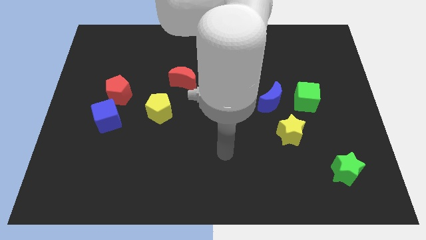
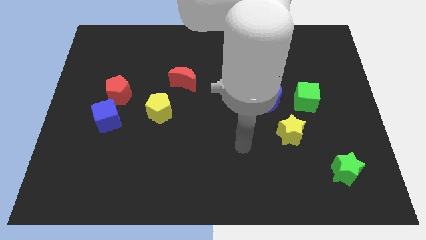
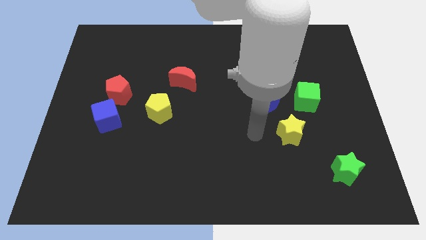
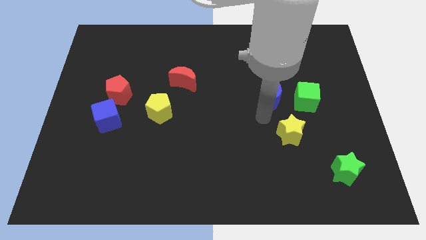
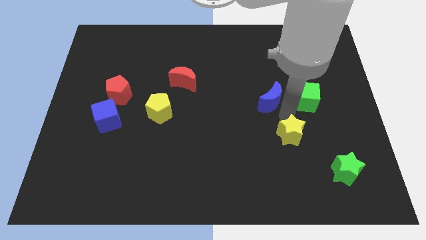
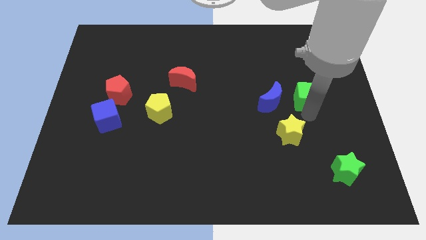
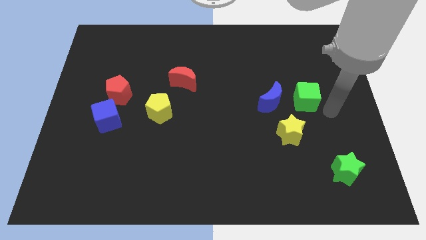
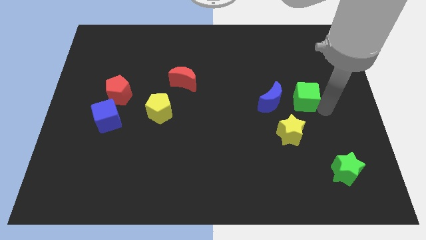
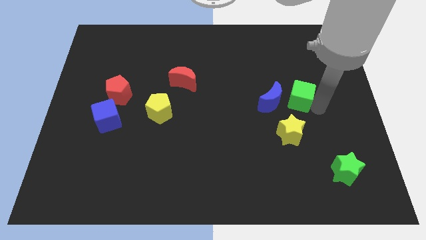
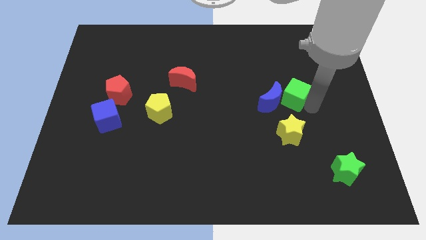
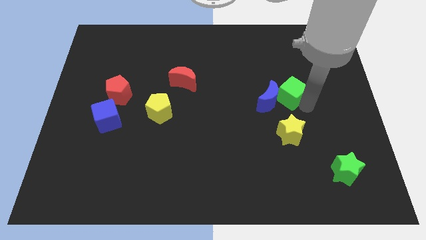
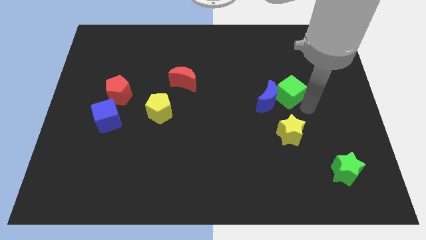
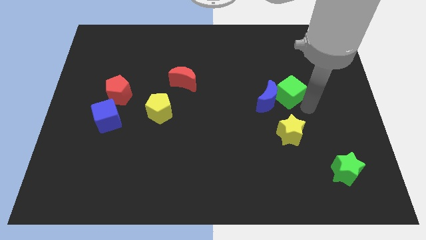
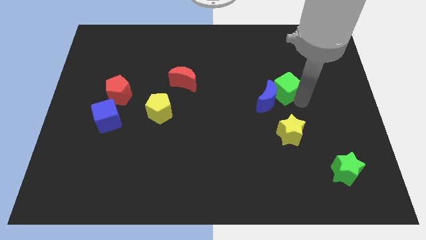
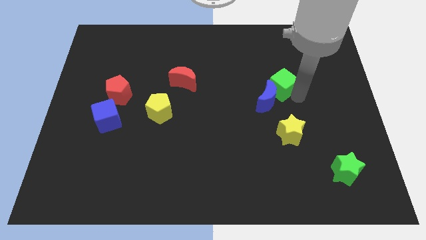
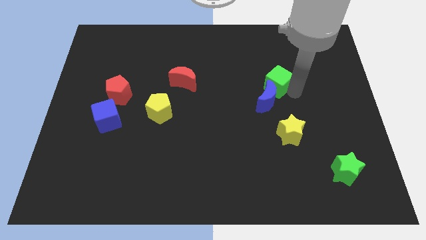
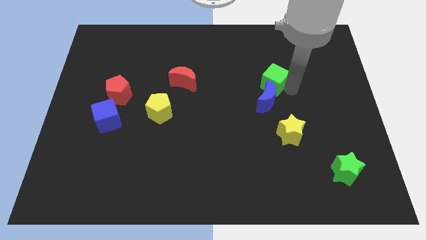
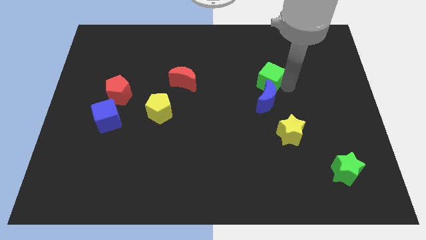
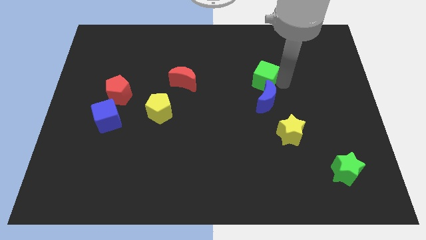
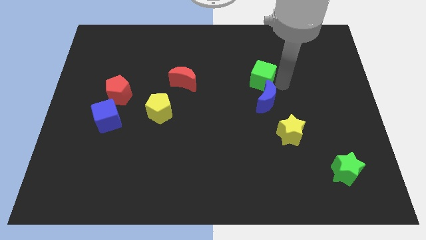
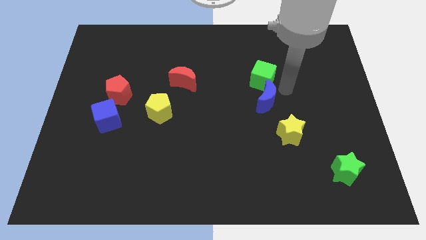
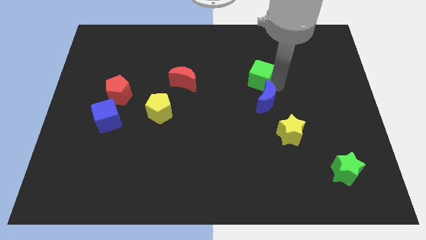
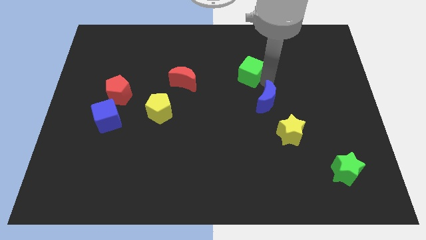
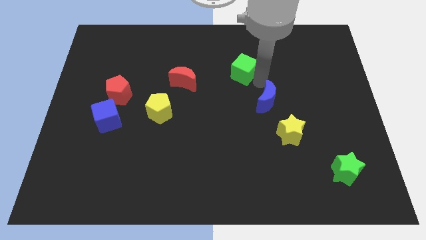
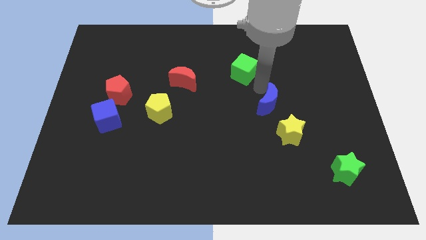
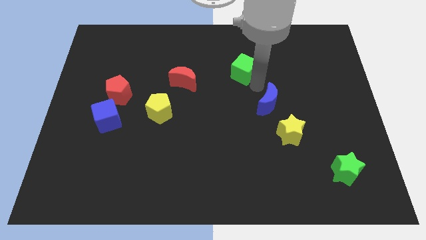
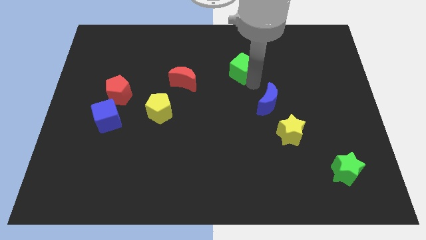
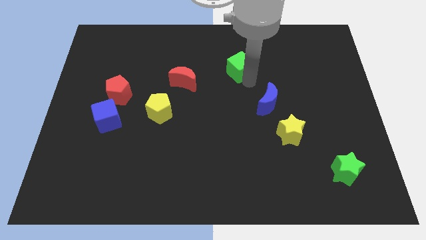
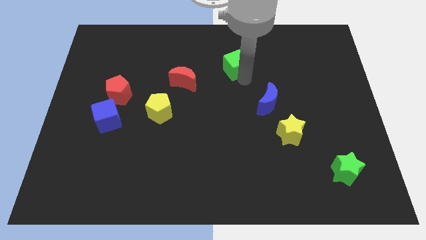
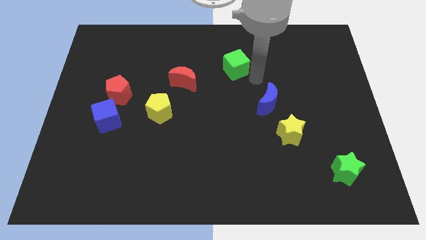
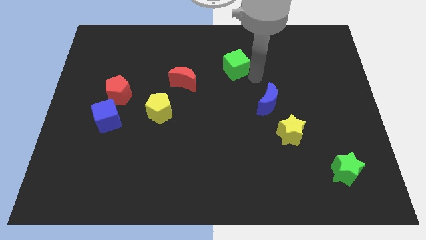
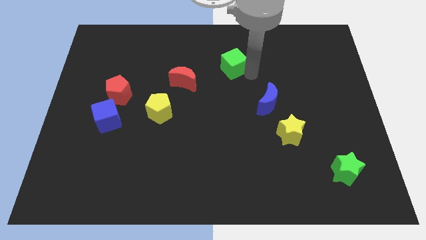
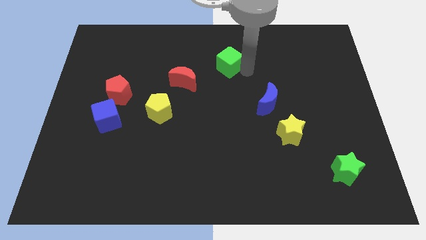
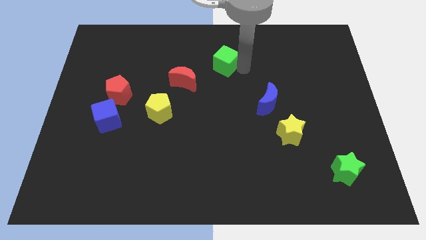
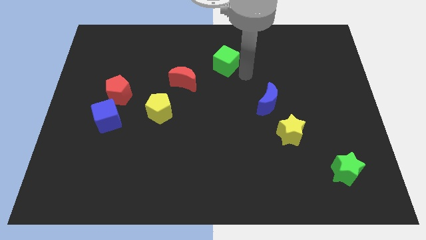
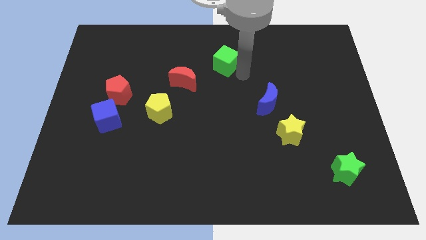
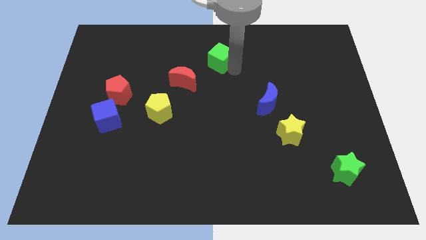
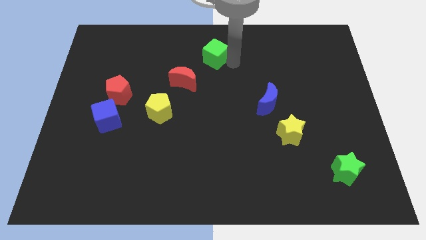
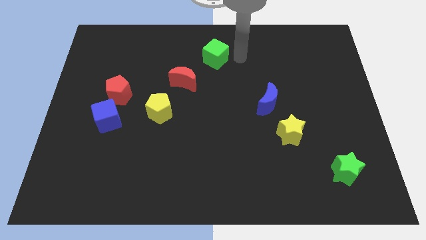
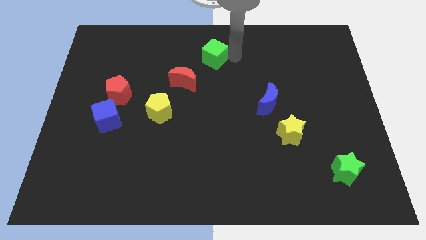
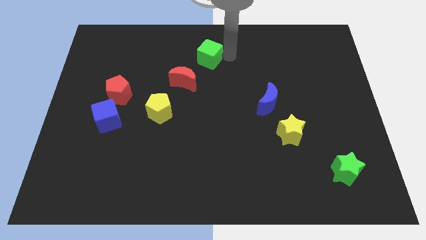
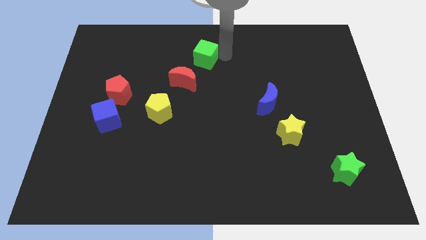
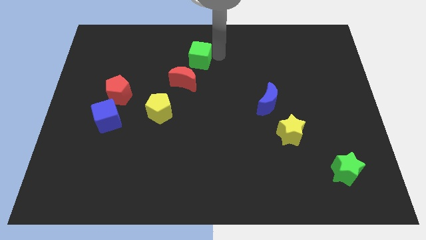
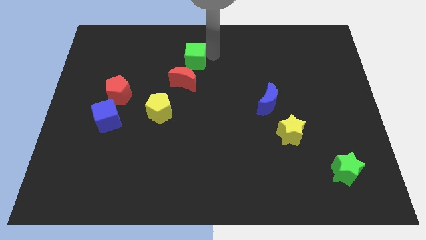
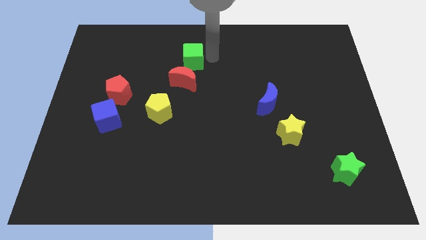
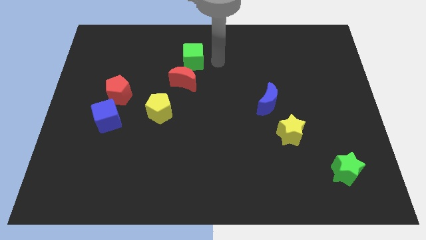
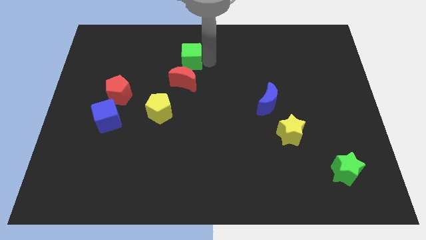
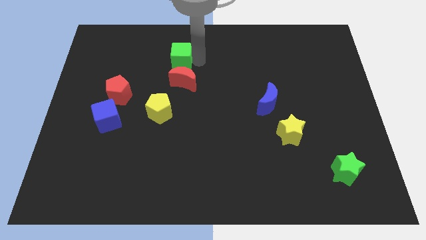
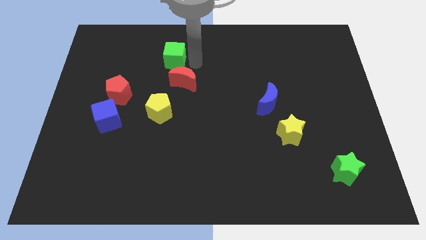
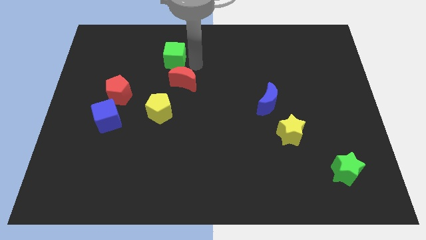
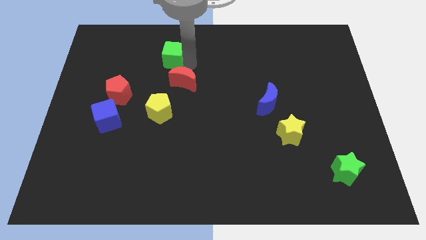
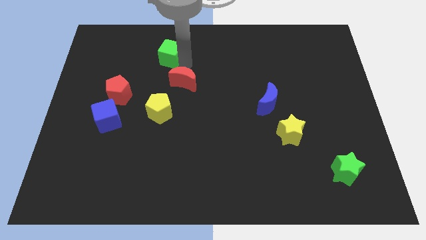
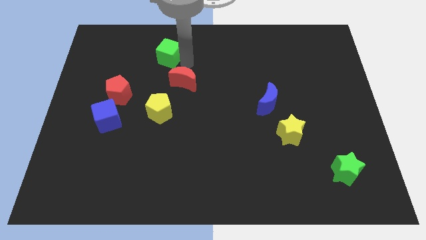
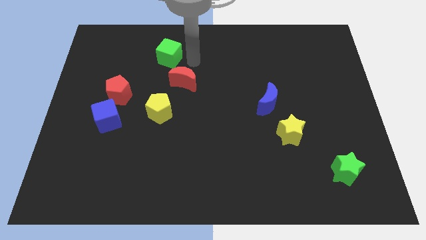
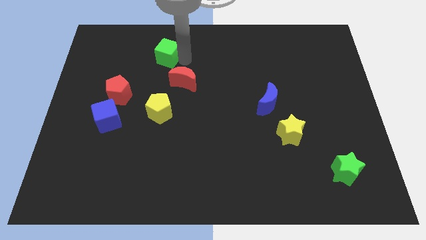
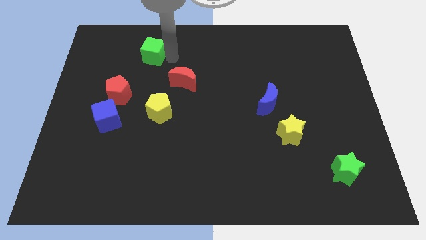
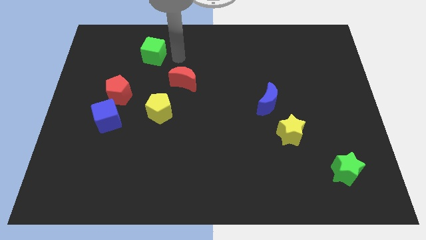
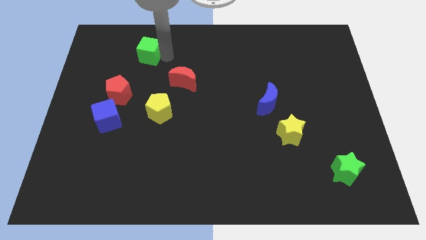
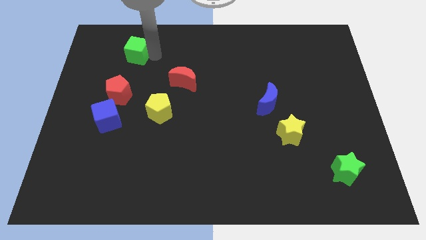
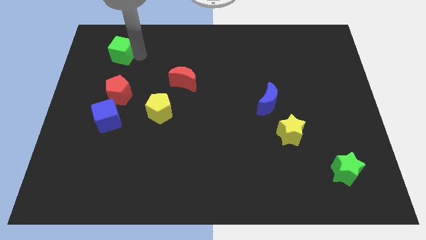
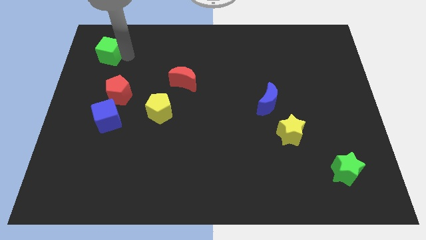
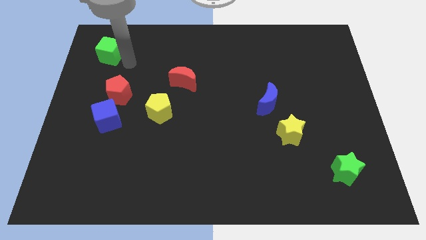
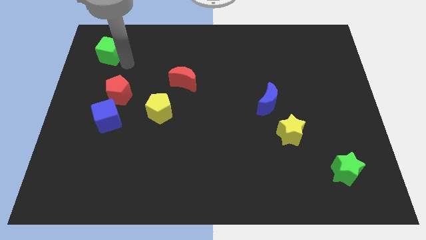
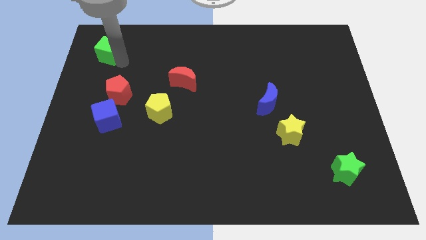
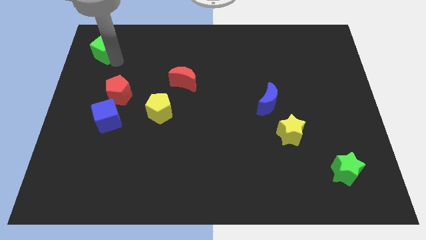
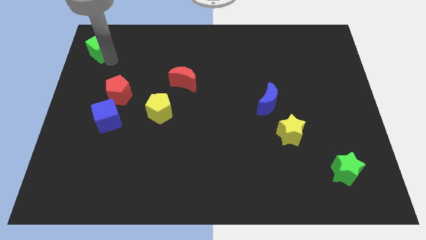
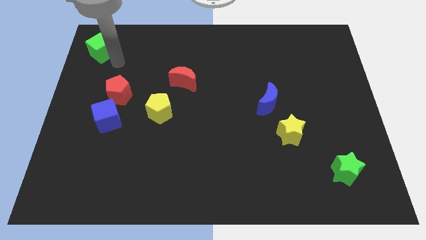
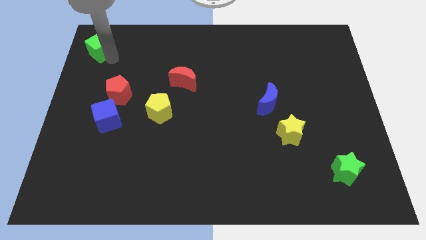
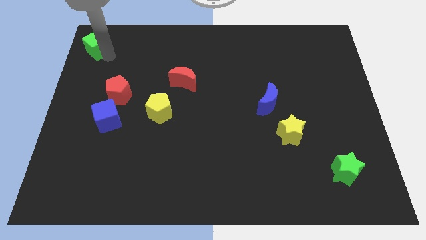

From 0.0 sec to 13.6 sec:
move the green cube to the upper left corner

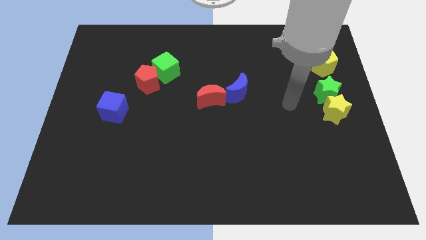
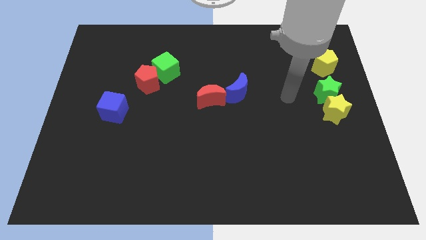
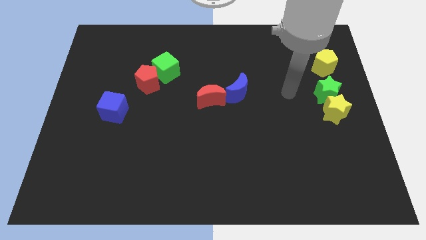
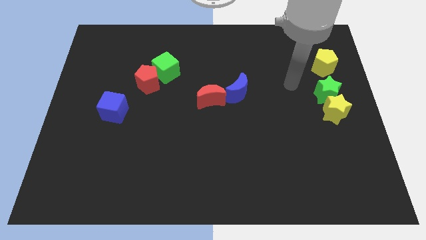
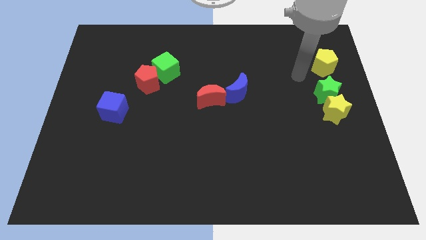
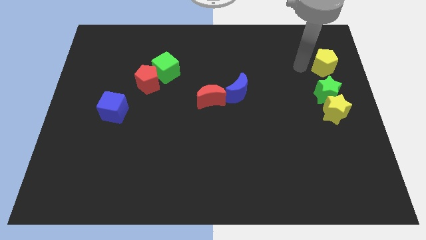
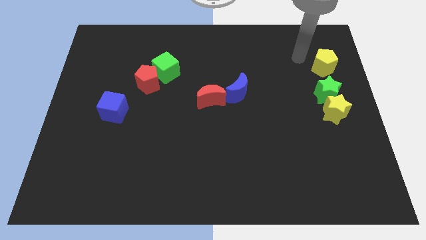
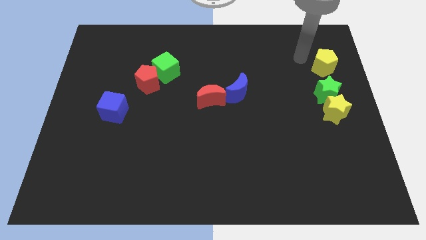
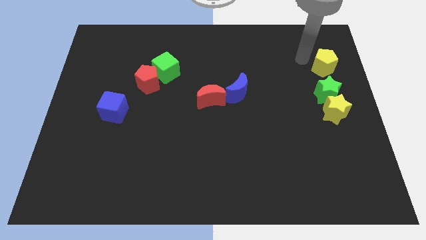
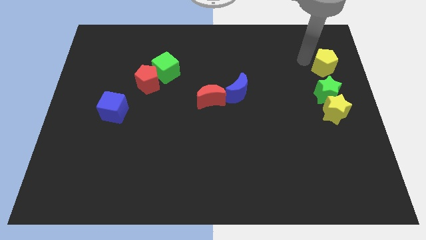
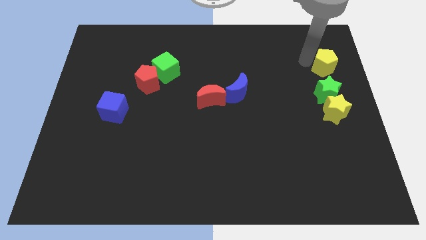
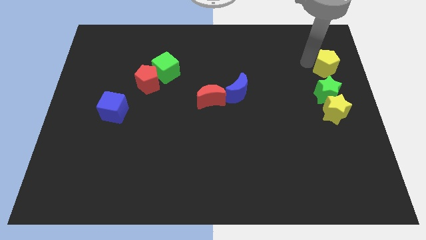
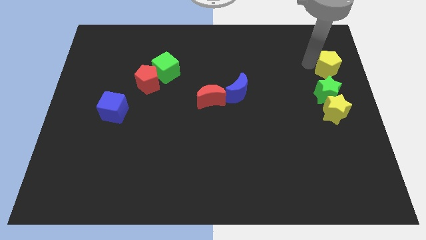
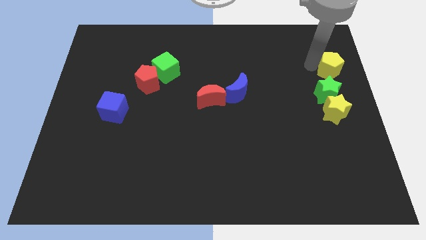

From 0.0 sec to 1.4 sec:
slide the yellow pentagon to the center right
